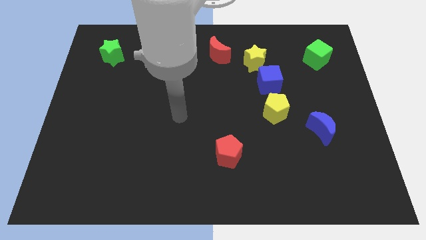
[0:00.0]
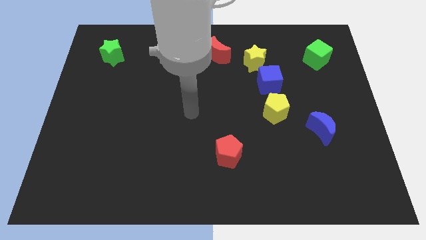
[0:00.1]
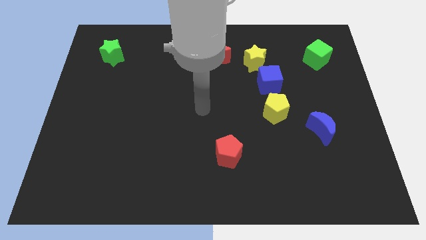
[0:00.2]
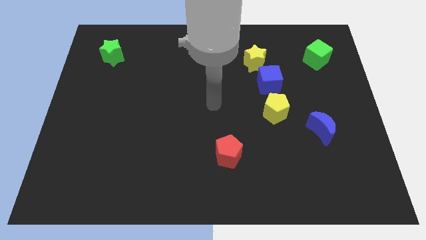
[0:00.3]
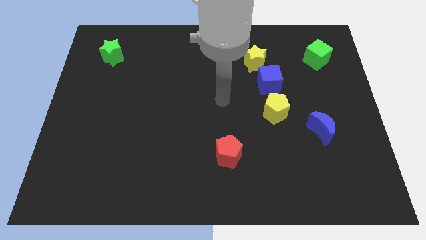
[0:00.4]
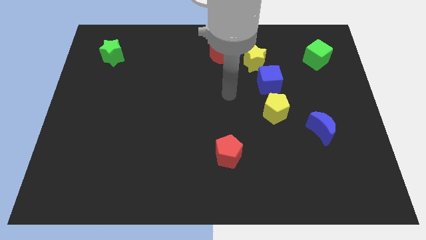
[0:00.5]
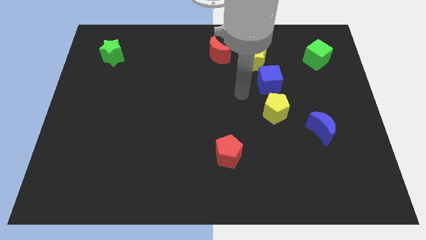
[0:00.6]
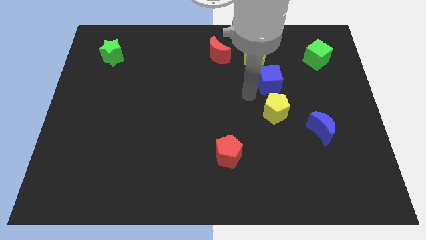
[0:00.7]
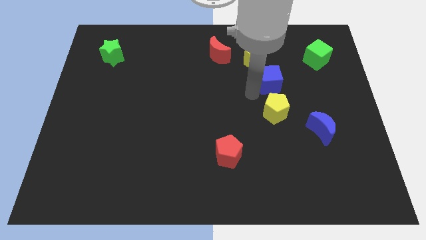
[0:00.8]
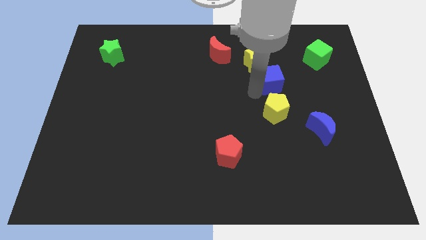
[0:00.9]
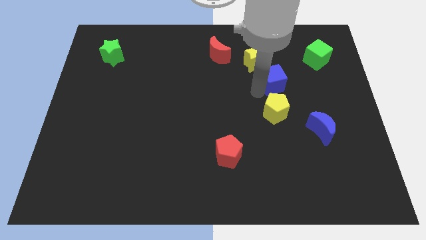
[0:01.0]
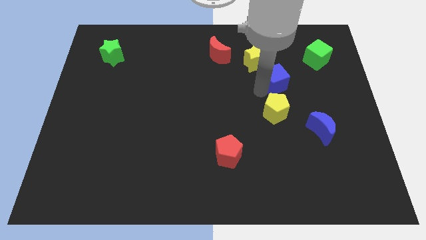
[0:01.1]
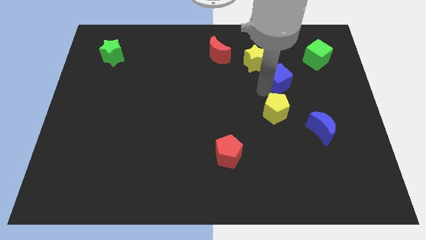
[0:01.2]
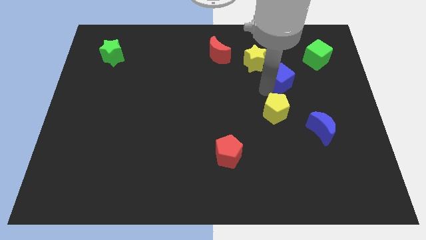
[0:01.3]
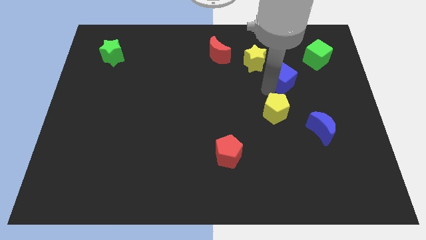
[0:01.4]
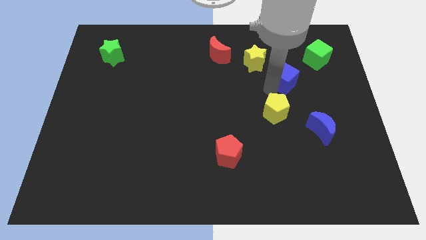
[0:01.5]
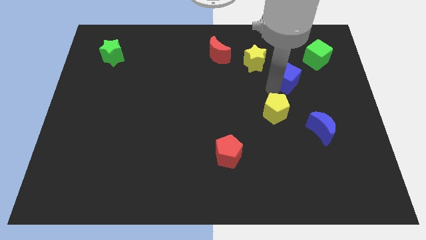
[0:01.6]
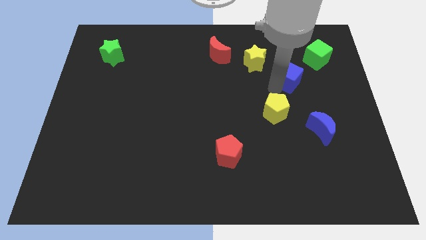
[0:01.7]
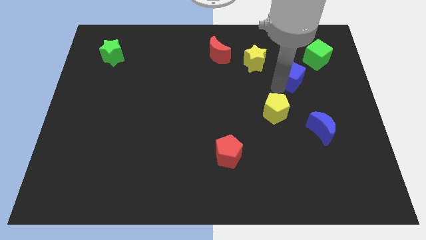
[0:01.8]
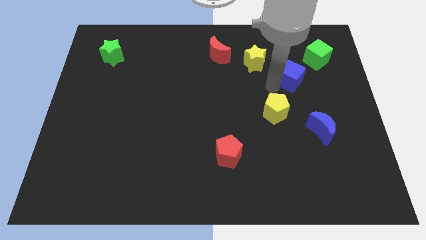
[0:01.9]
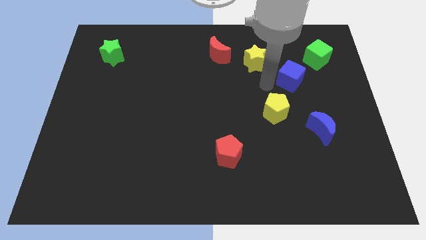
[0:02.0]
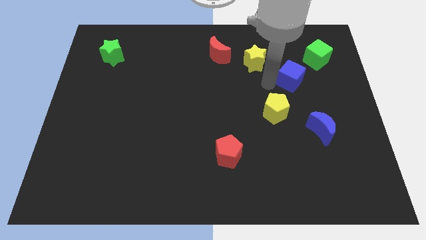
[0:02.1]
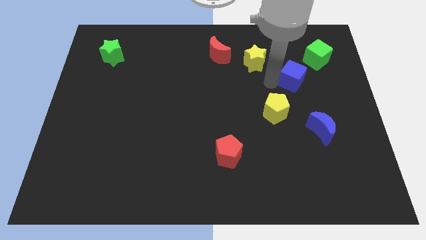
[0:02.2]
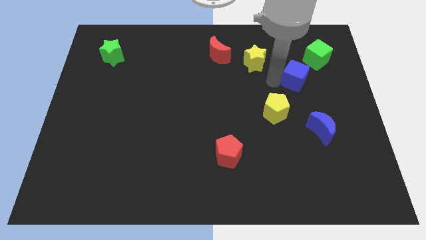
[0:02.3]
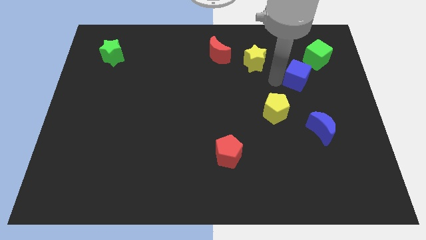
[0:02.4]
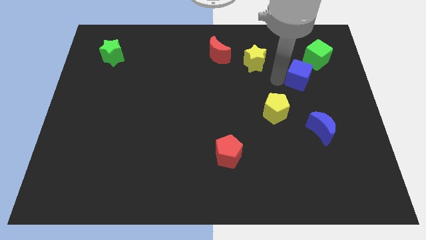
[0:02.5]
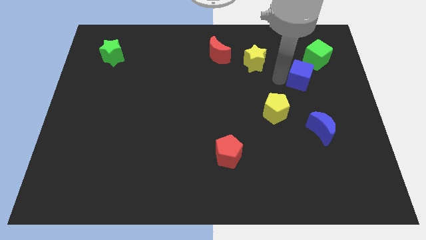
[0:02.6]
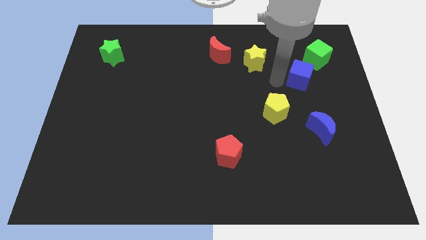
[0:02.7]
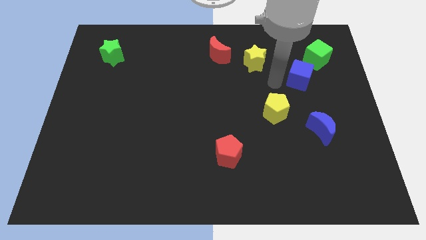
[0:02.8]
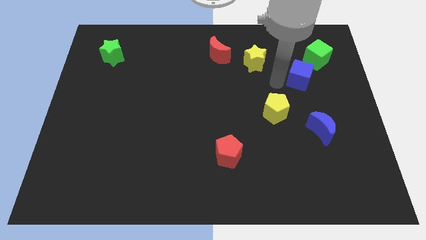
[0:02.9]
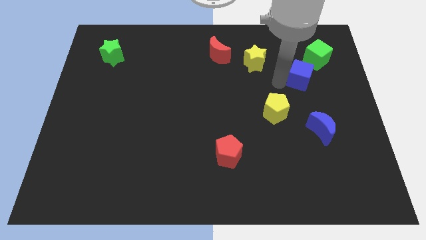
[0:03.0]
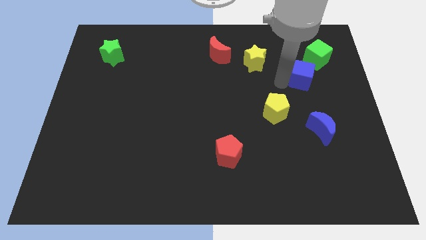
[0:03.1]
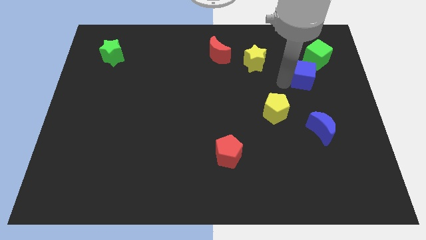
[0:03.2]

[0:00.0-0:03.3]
move the blue cube away from the yellow star and yellow pentagon

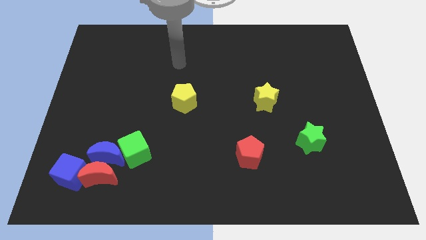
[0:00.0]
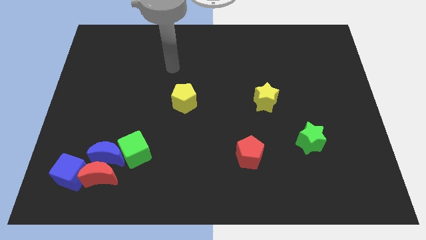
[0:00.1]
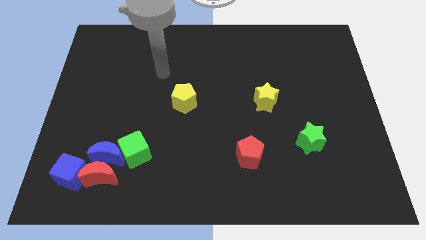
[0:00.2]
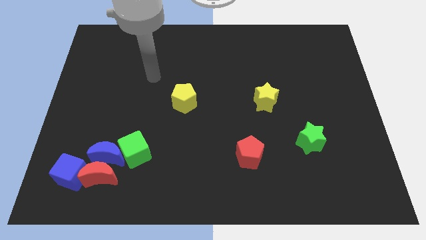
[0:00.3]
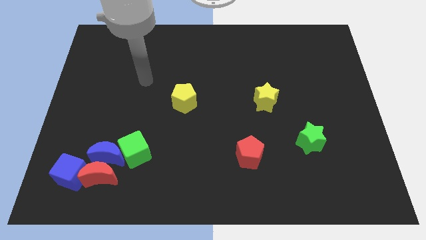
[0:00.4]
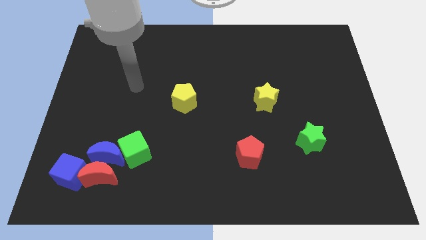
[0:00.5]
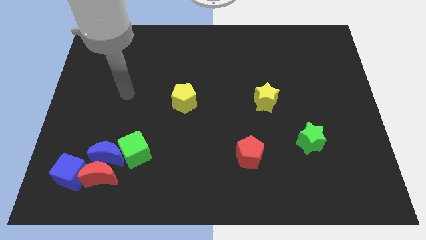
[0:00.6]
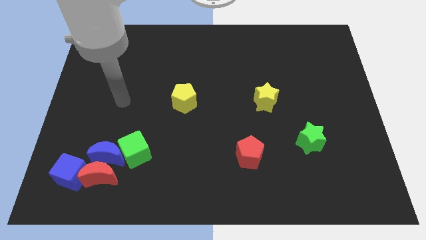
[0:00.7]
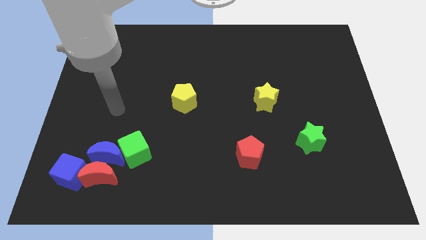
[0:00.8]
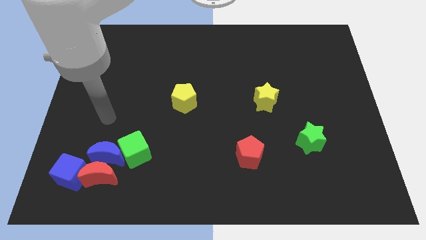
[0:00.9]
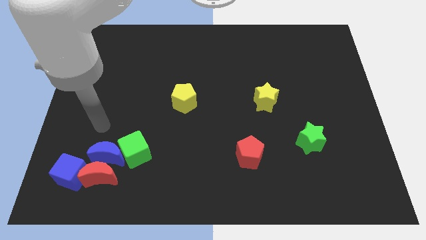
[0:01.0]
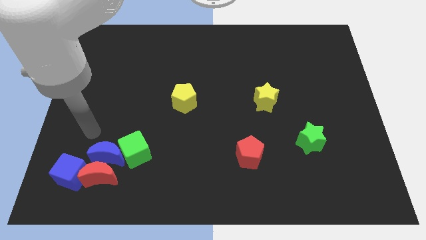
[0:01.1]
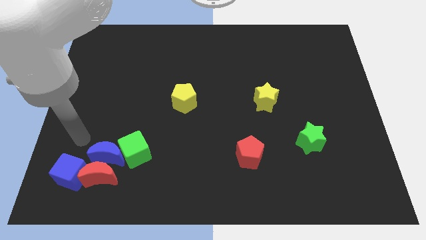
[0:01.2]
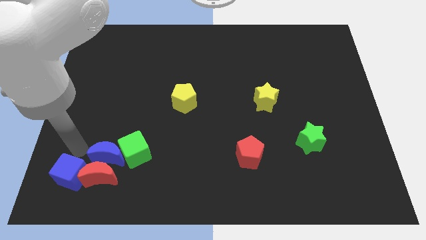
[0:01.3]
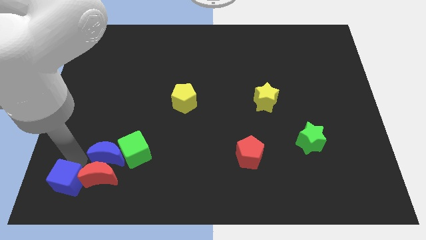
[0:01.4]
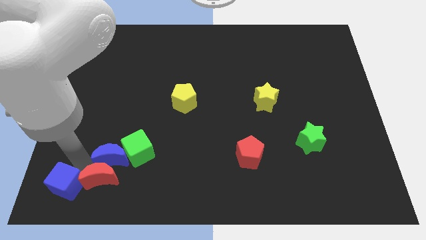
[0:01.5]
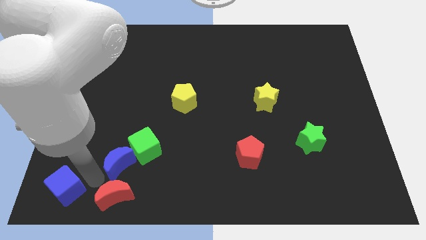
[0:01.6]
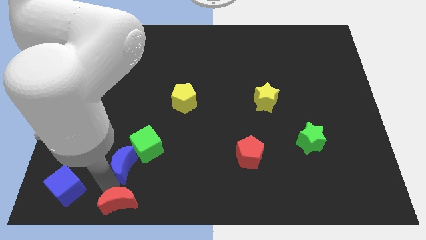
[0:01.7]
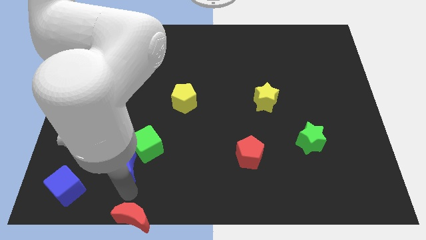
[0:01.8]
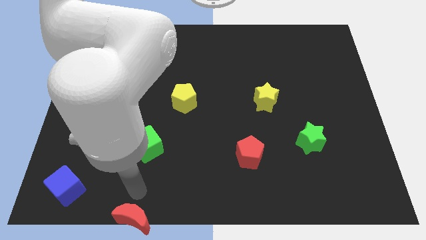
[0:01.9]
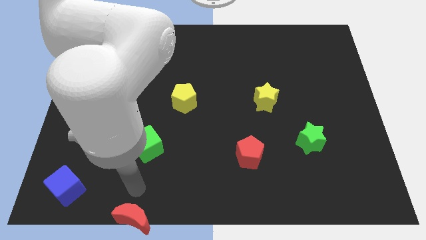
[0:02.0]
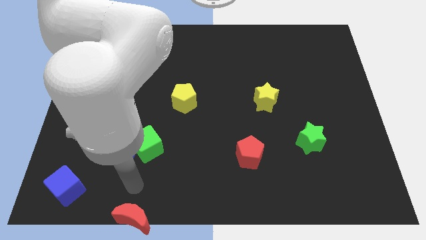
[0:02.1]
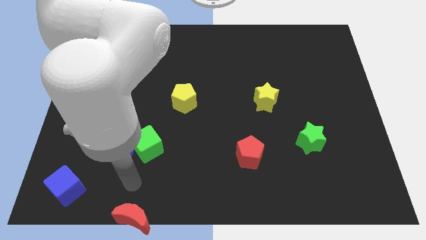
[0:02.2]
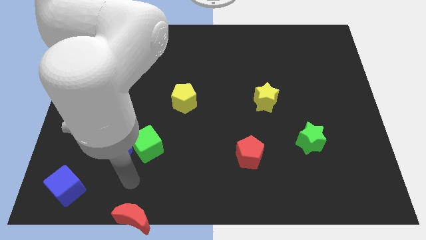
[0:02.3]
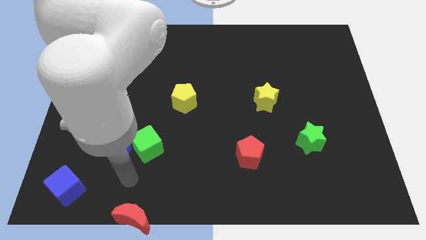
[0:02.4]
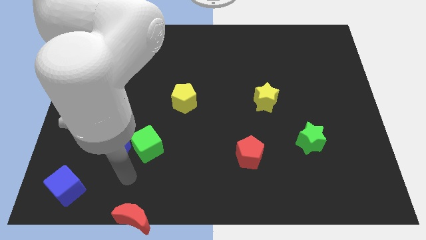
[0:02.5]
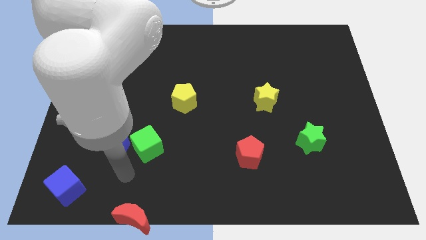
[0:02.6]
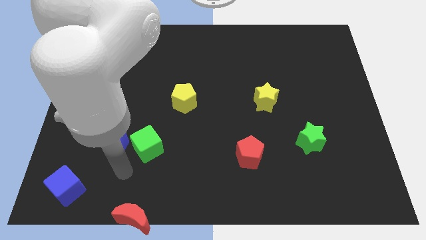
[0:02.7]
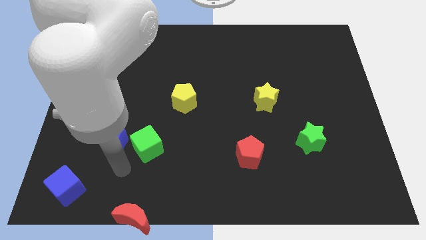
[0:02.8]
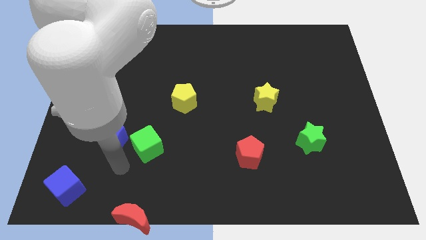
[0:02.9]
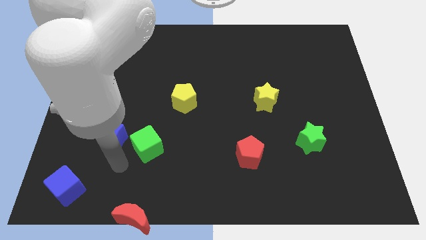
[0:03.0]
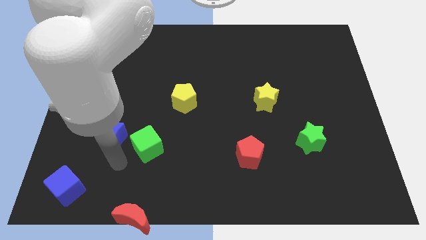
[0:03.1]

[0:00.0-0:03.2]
pull the blue moon apart from the clump

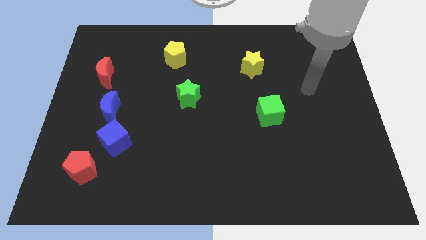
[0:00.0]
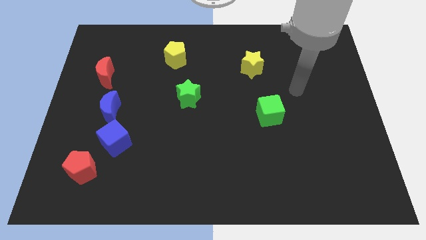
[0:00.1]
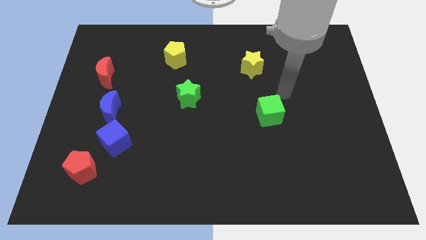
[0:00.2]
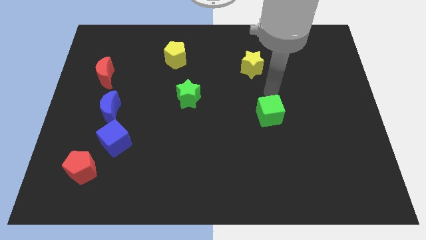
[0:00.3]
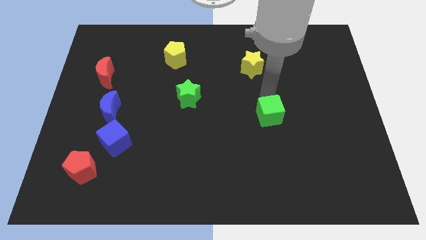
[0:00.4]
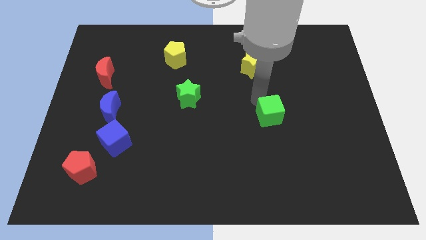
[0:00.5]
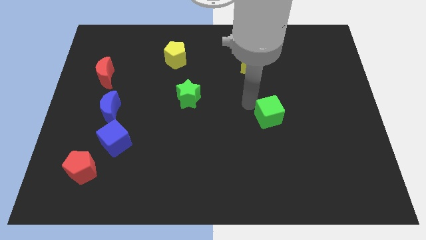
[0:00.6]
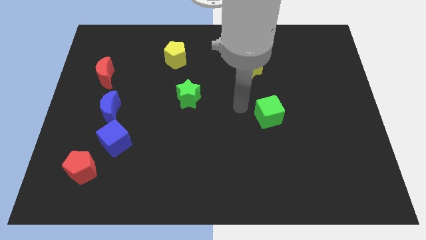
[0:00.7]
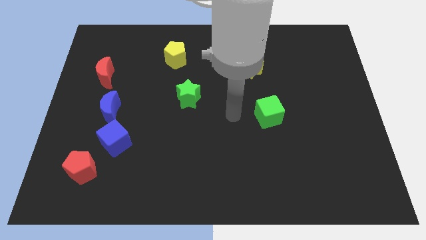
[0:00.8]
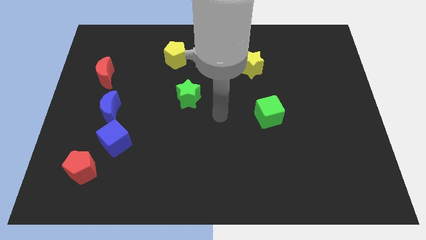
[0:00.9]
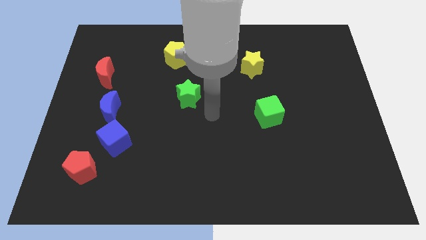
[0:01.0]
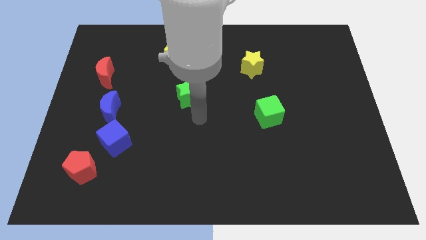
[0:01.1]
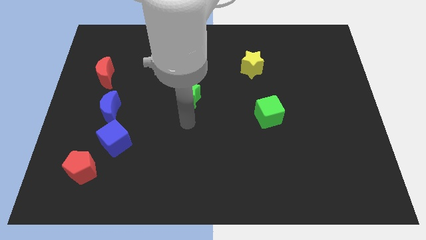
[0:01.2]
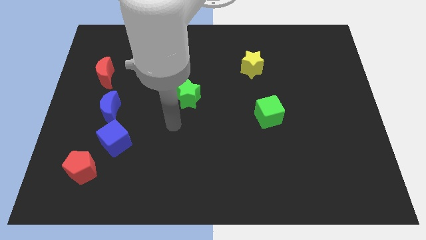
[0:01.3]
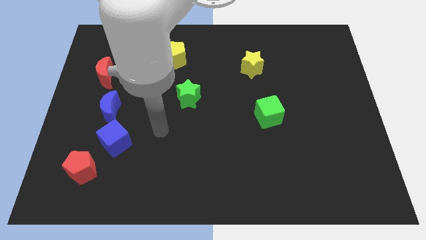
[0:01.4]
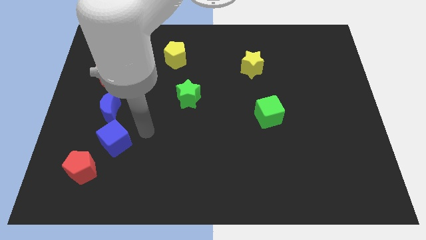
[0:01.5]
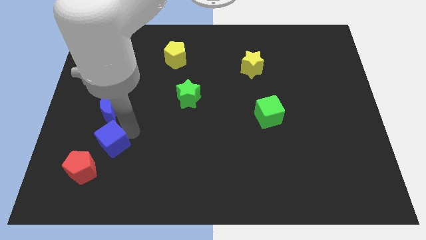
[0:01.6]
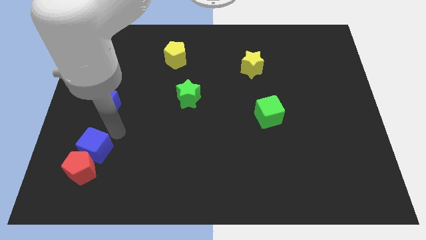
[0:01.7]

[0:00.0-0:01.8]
separate the blue moon from the blue cube

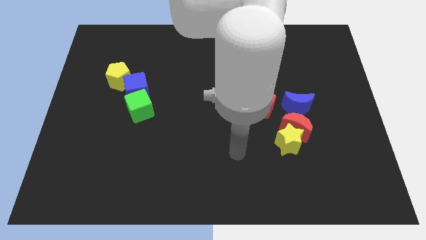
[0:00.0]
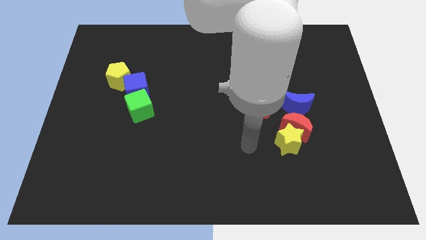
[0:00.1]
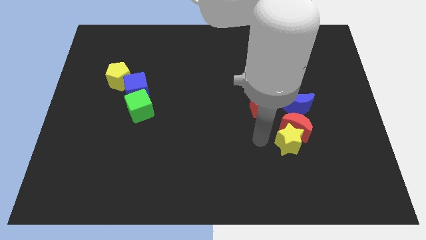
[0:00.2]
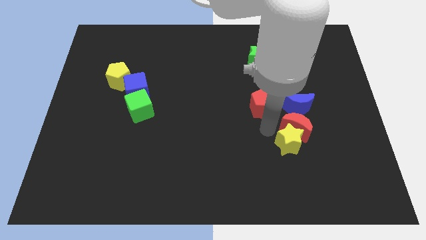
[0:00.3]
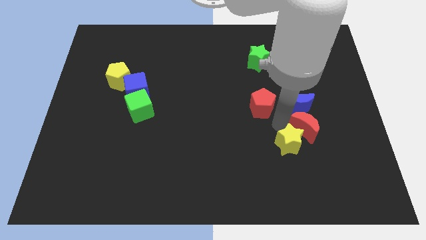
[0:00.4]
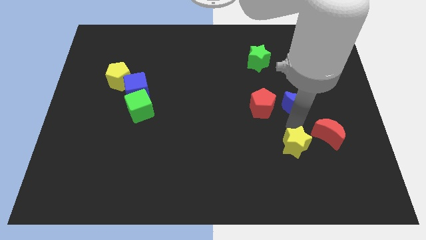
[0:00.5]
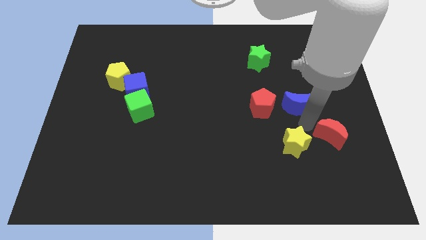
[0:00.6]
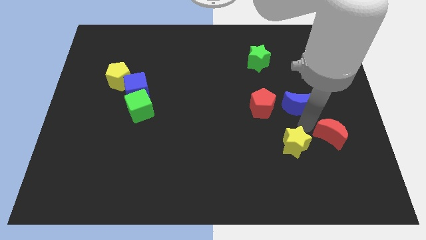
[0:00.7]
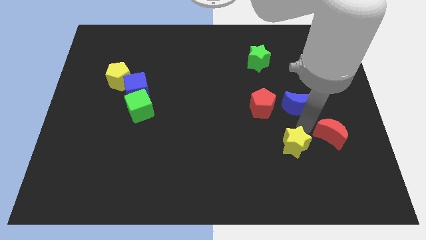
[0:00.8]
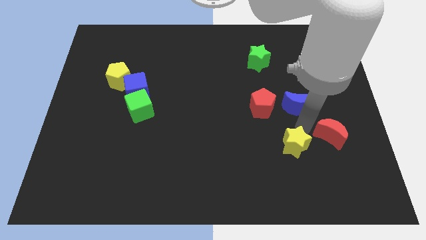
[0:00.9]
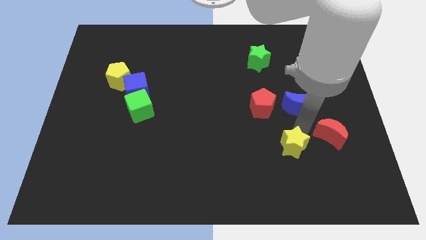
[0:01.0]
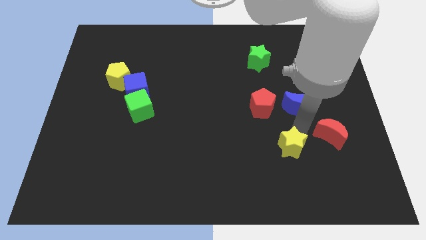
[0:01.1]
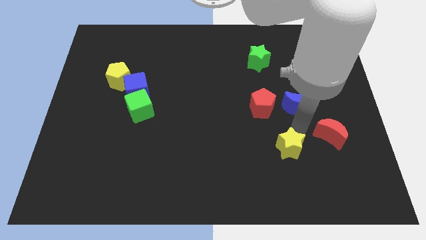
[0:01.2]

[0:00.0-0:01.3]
move the yellow star away from the red moon
